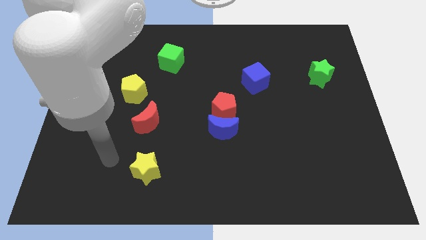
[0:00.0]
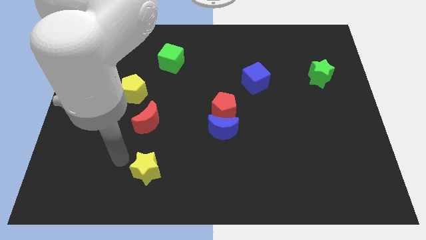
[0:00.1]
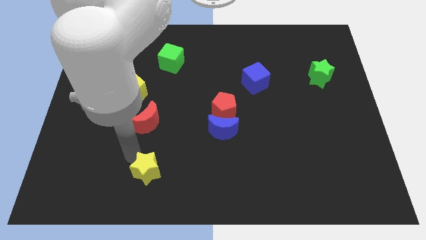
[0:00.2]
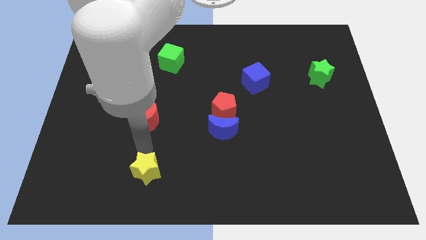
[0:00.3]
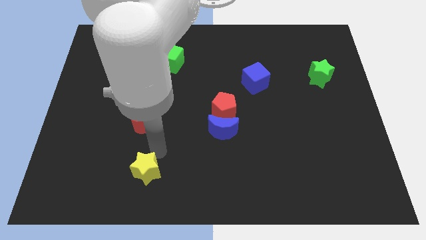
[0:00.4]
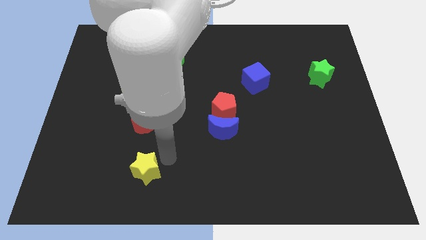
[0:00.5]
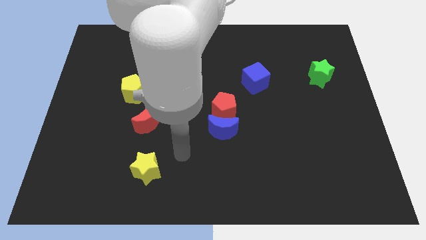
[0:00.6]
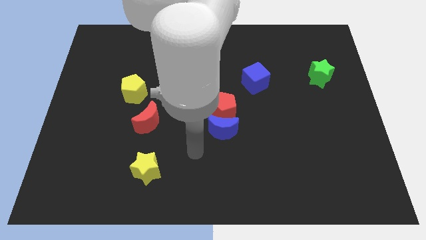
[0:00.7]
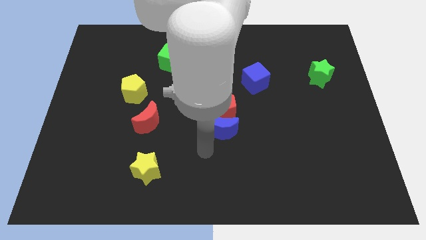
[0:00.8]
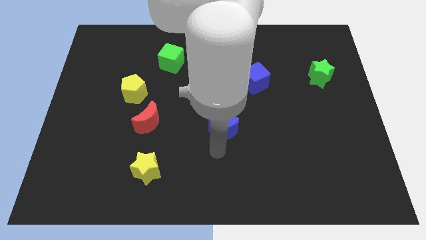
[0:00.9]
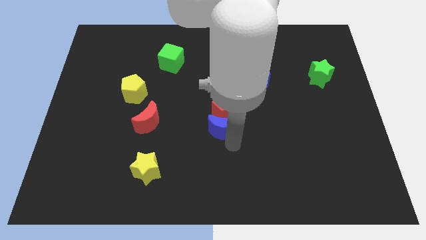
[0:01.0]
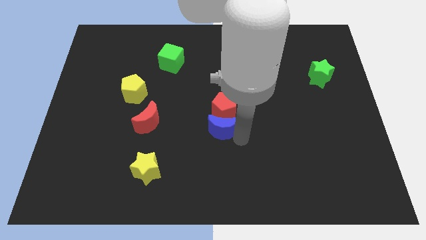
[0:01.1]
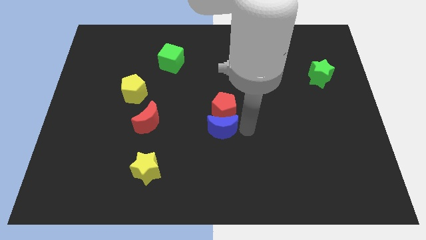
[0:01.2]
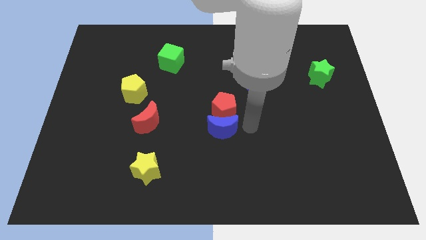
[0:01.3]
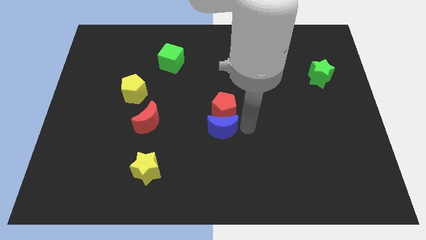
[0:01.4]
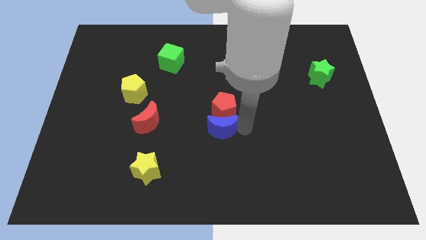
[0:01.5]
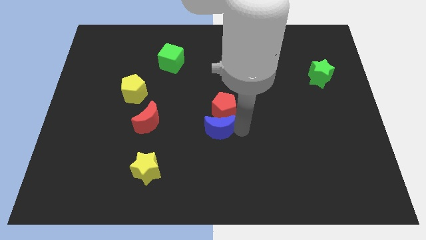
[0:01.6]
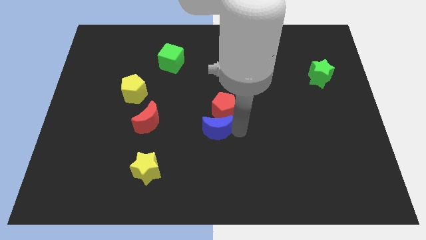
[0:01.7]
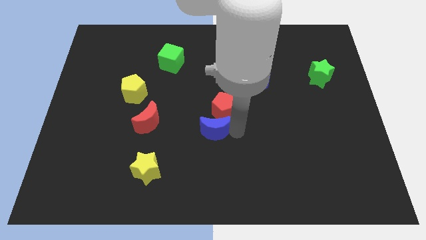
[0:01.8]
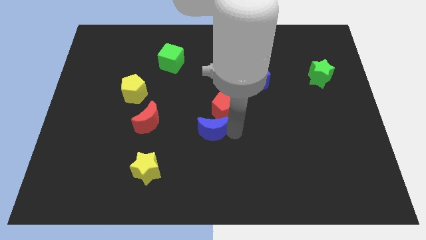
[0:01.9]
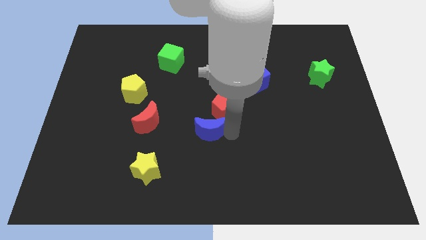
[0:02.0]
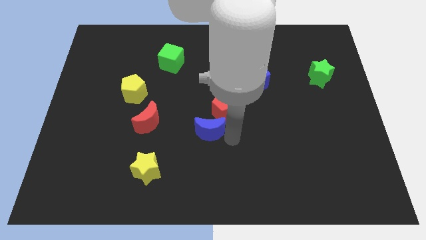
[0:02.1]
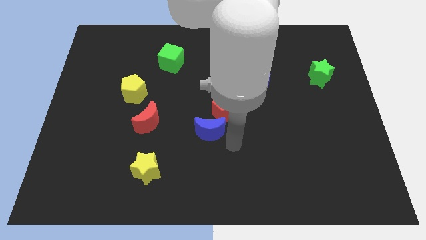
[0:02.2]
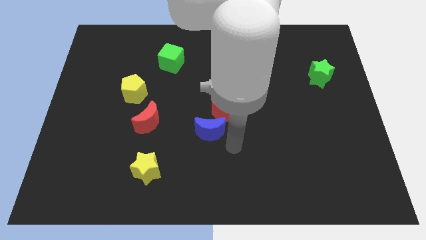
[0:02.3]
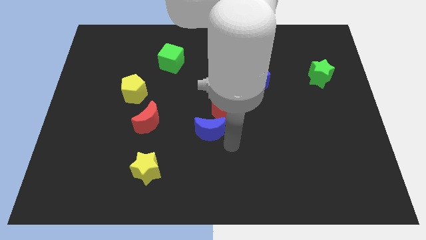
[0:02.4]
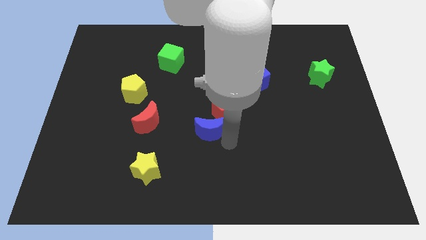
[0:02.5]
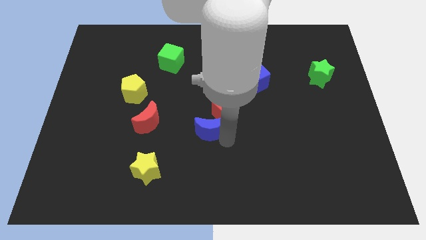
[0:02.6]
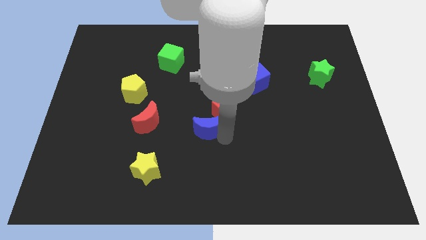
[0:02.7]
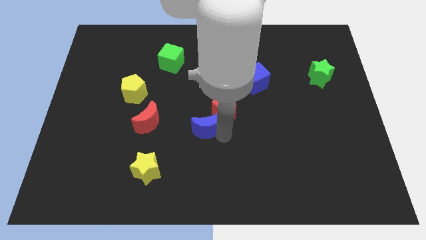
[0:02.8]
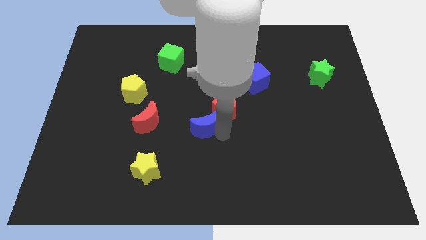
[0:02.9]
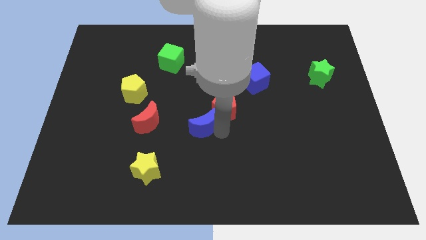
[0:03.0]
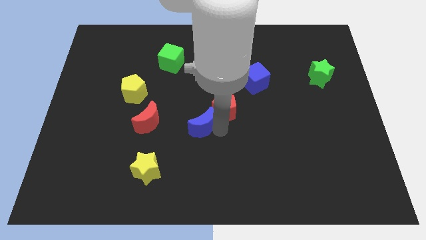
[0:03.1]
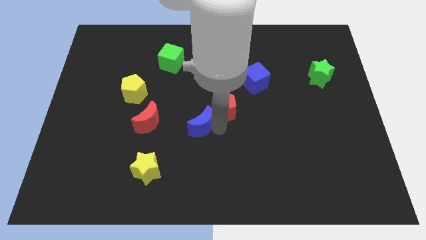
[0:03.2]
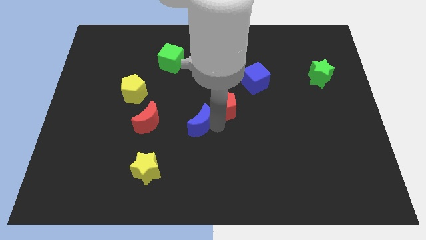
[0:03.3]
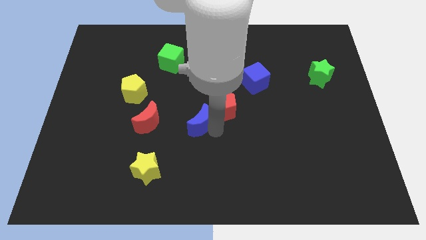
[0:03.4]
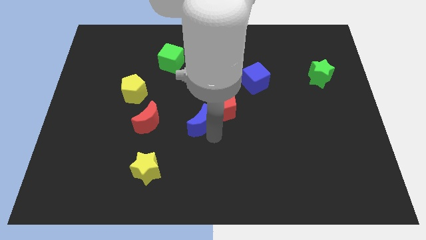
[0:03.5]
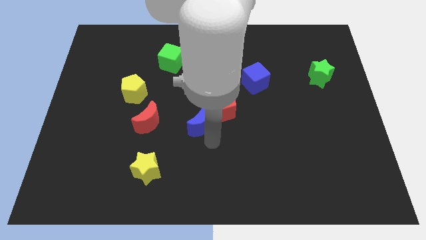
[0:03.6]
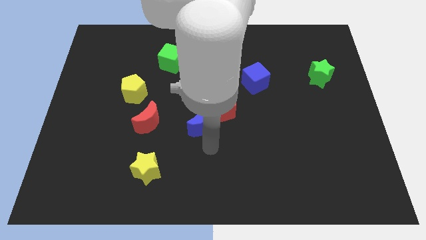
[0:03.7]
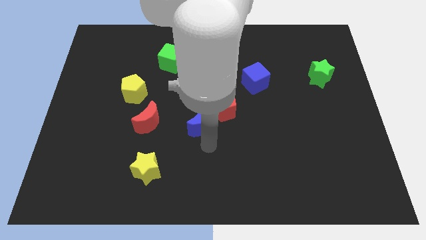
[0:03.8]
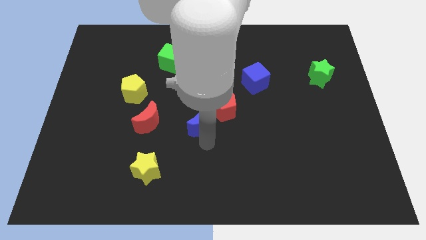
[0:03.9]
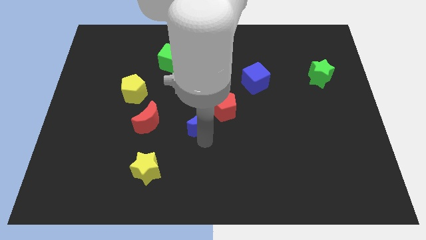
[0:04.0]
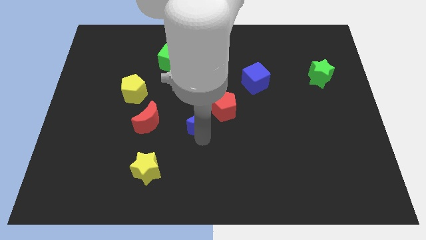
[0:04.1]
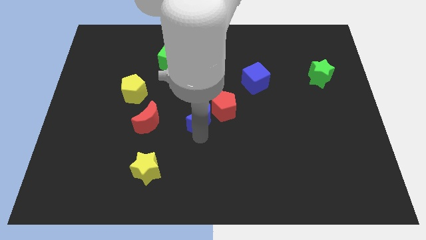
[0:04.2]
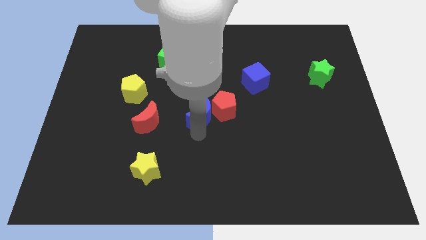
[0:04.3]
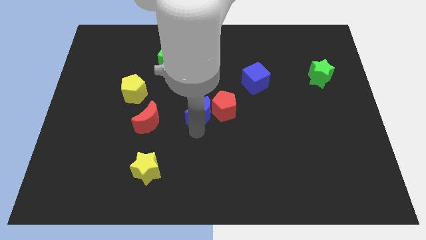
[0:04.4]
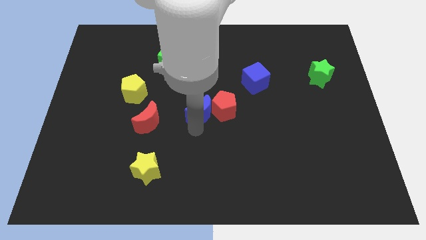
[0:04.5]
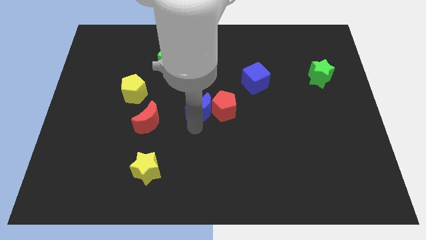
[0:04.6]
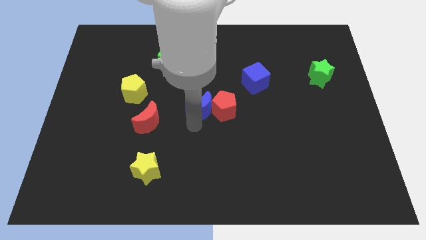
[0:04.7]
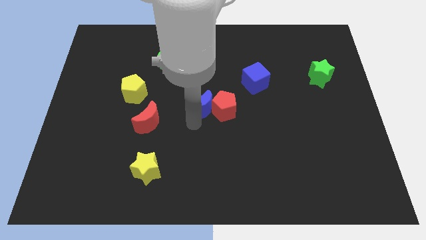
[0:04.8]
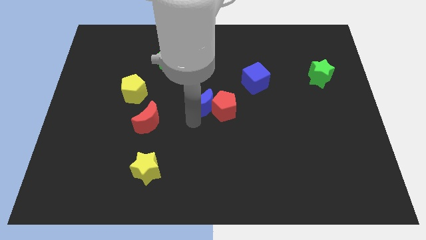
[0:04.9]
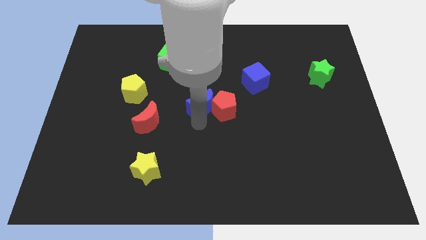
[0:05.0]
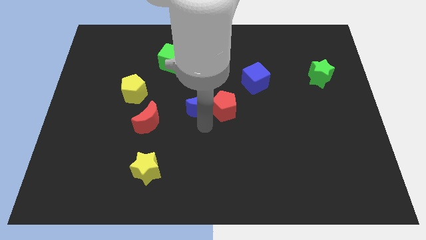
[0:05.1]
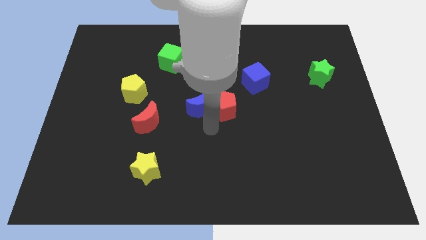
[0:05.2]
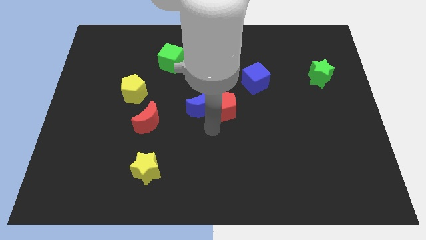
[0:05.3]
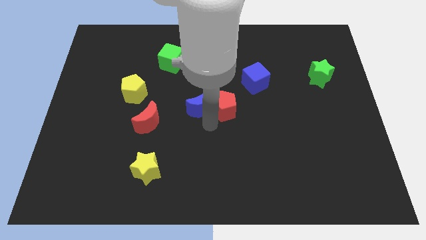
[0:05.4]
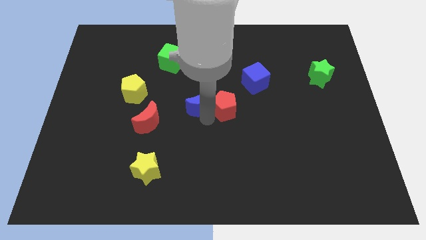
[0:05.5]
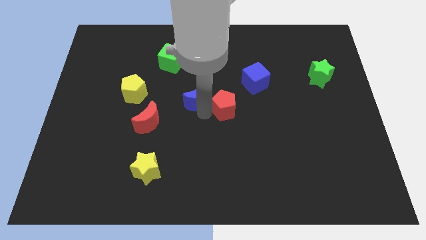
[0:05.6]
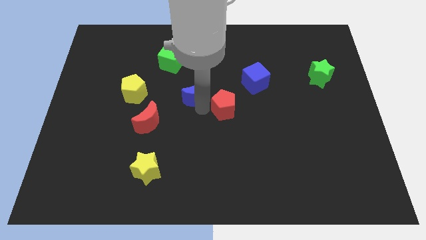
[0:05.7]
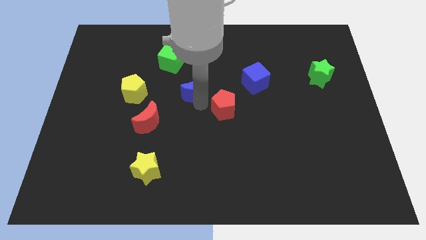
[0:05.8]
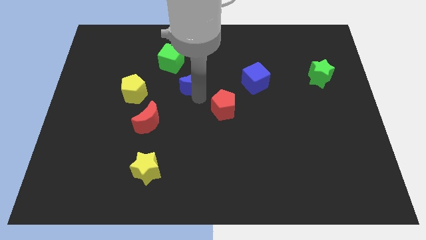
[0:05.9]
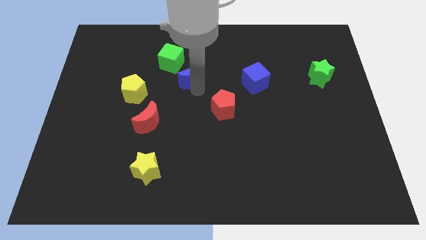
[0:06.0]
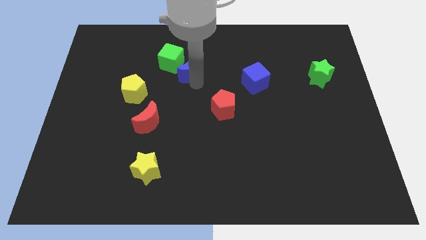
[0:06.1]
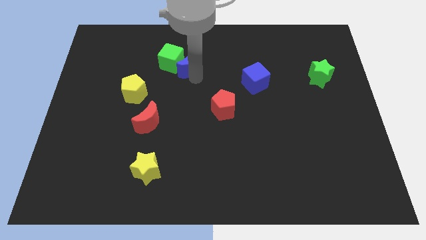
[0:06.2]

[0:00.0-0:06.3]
slide the blue moon towards the green cube

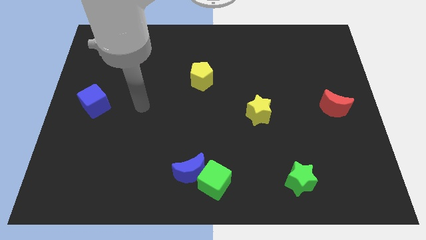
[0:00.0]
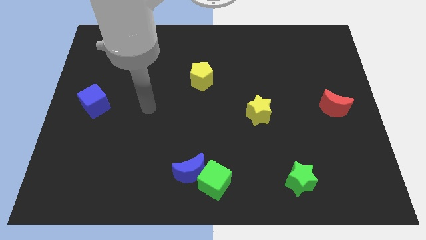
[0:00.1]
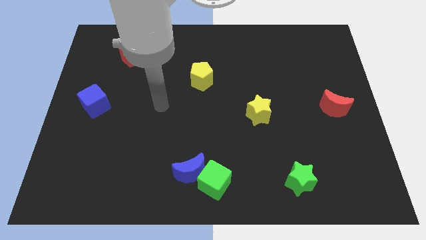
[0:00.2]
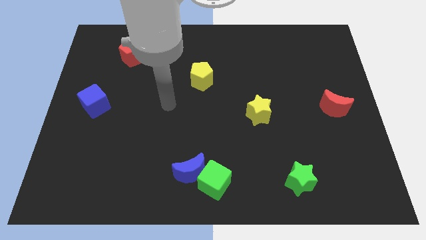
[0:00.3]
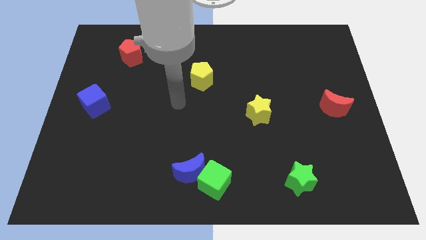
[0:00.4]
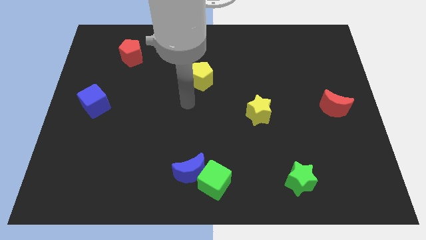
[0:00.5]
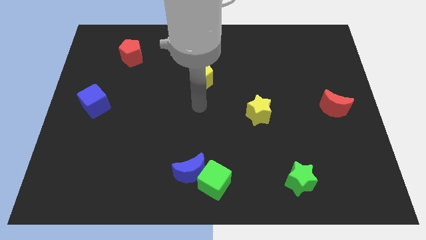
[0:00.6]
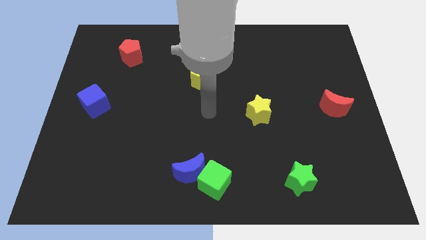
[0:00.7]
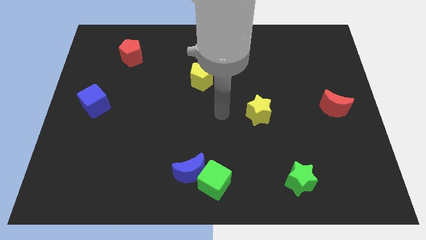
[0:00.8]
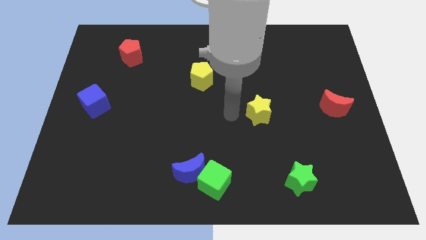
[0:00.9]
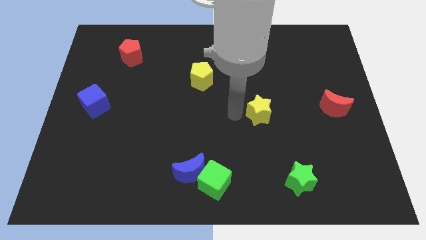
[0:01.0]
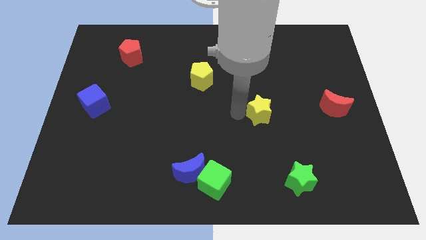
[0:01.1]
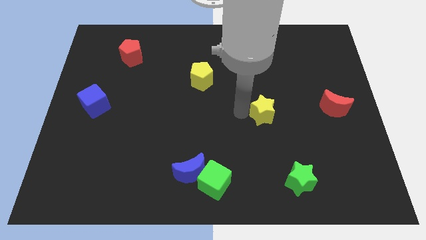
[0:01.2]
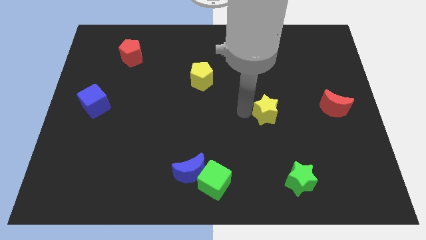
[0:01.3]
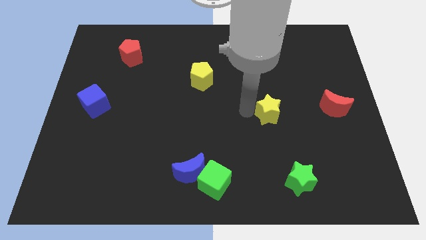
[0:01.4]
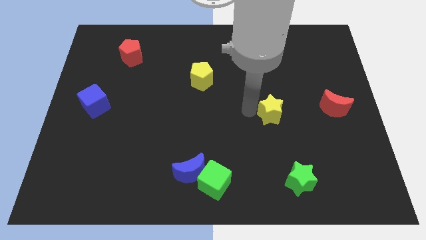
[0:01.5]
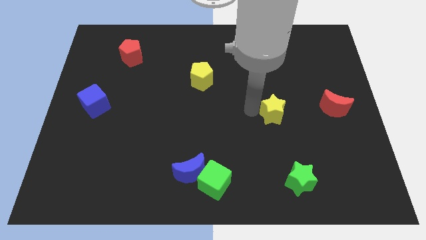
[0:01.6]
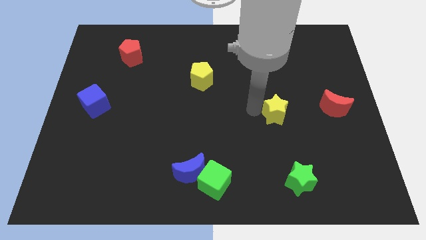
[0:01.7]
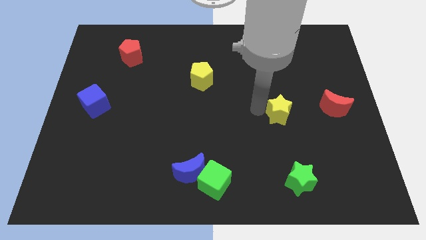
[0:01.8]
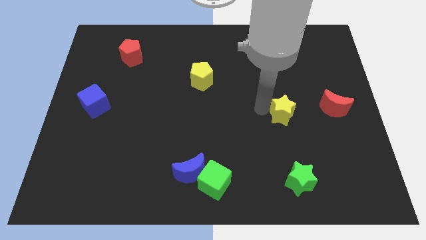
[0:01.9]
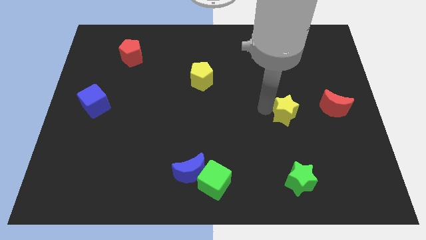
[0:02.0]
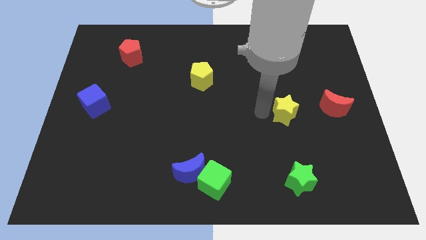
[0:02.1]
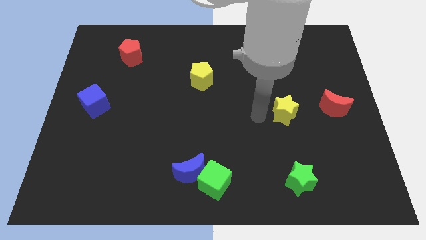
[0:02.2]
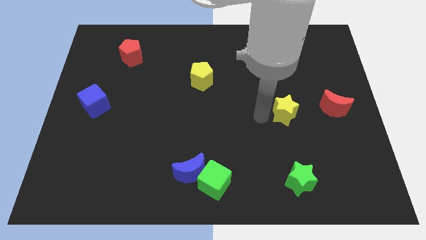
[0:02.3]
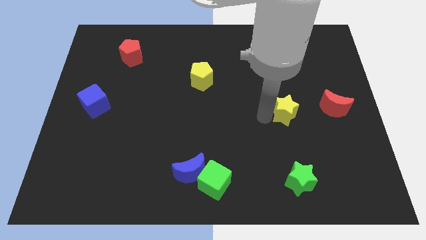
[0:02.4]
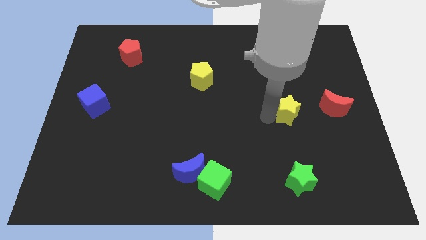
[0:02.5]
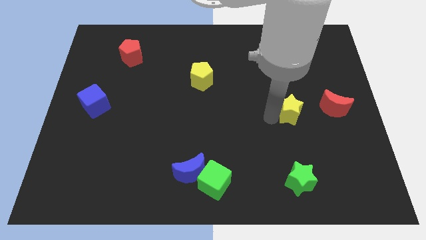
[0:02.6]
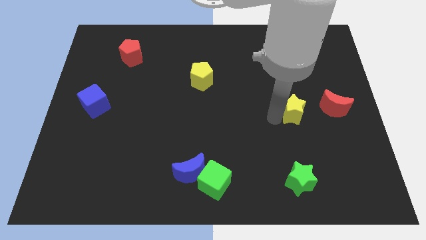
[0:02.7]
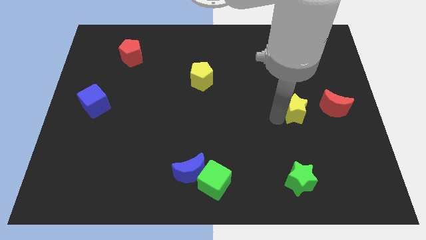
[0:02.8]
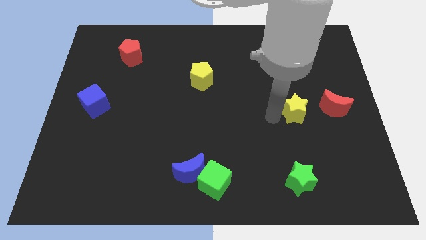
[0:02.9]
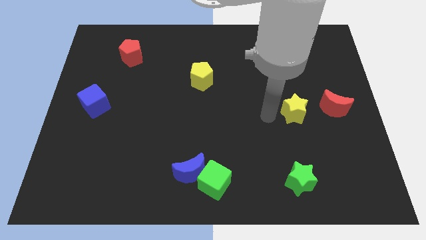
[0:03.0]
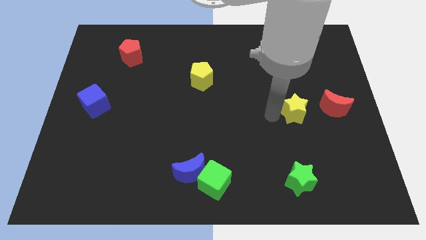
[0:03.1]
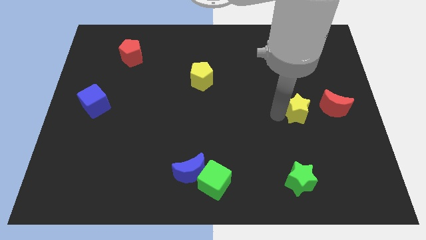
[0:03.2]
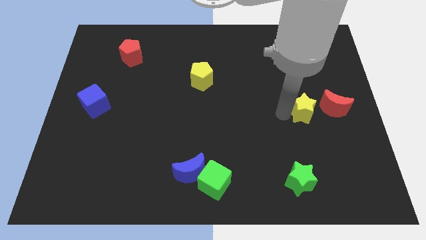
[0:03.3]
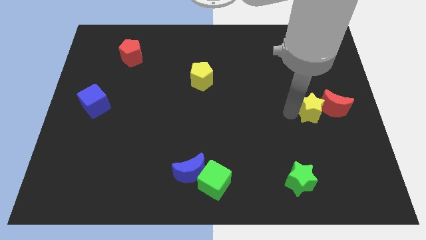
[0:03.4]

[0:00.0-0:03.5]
push the yellow star close to the red moon
